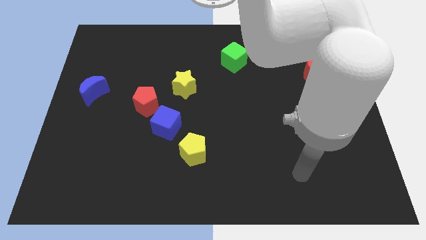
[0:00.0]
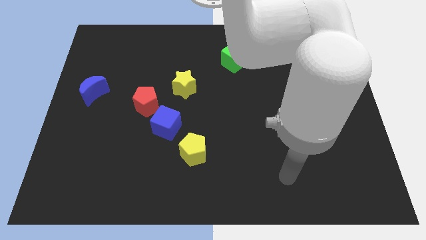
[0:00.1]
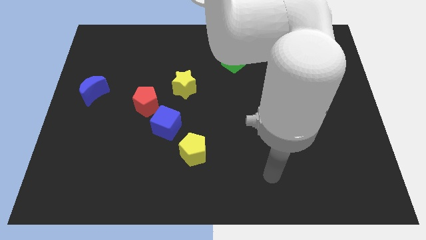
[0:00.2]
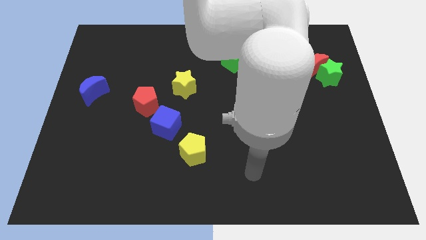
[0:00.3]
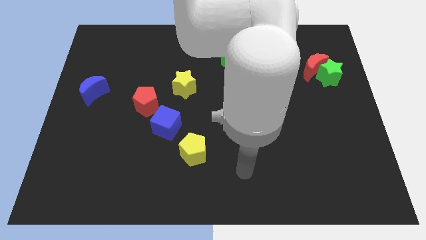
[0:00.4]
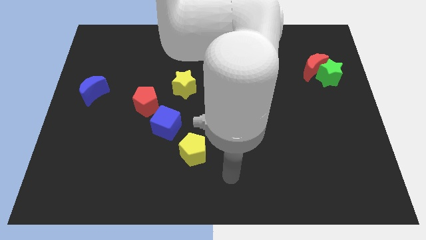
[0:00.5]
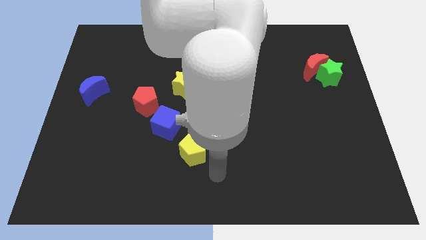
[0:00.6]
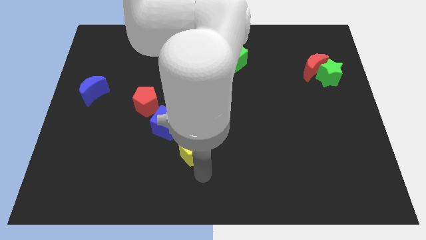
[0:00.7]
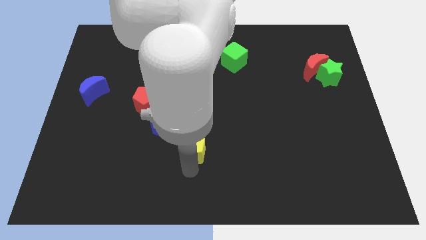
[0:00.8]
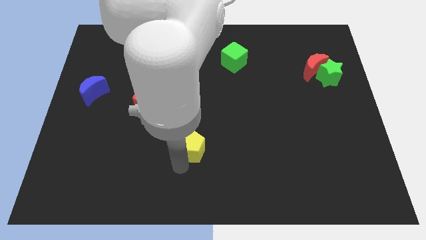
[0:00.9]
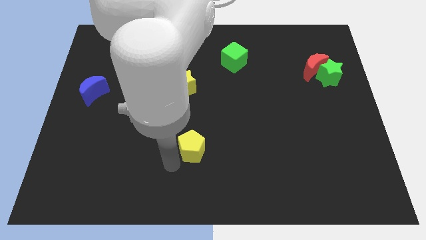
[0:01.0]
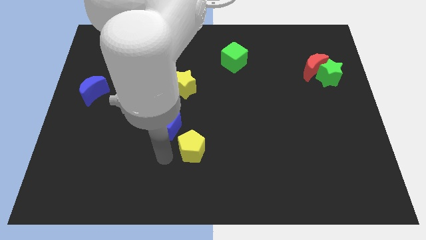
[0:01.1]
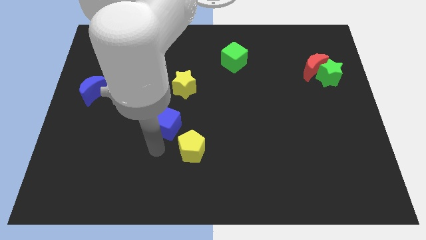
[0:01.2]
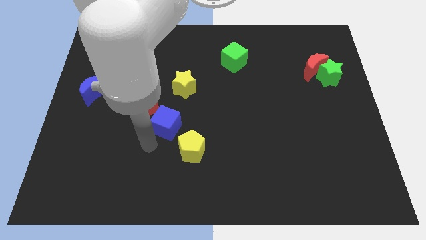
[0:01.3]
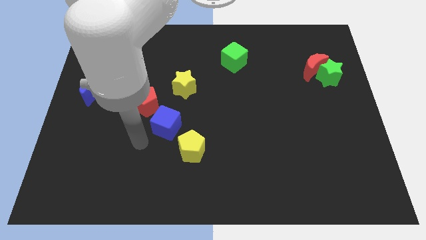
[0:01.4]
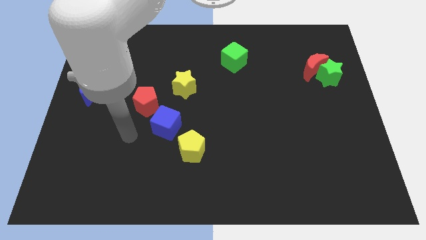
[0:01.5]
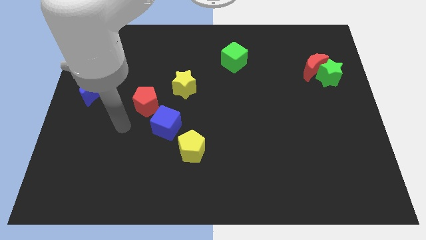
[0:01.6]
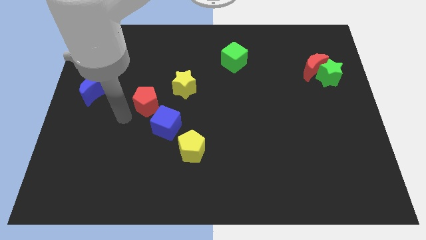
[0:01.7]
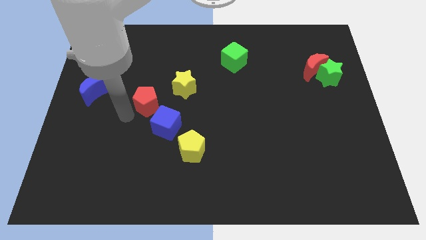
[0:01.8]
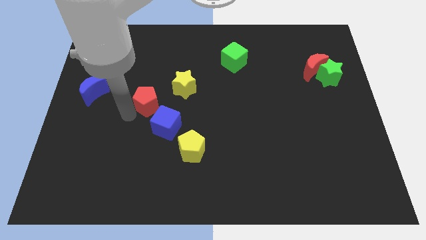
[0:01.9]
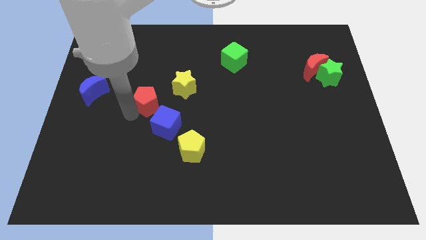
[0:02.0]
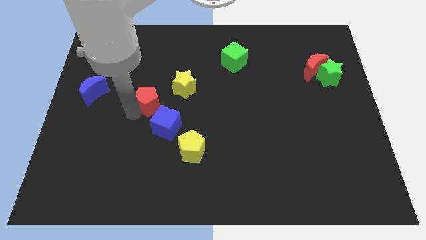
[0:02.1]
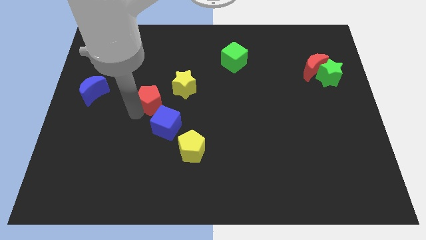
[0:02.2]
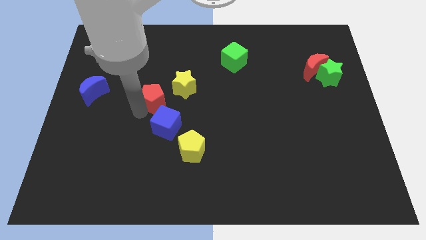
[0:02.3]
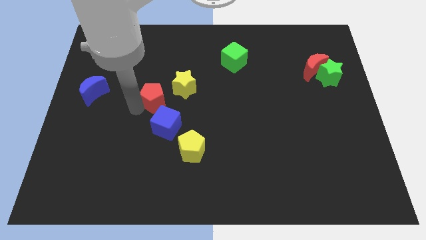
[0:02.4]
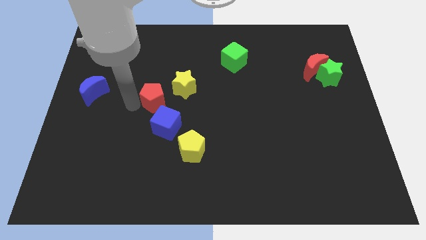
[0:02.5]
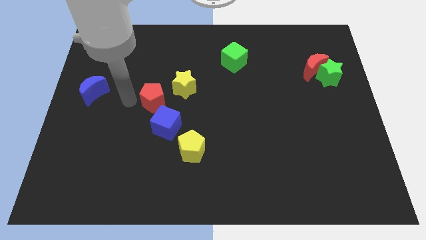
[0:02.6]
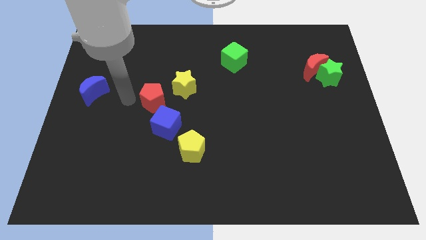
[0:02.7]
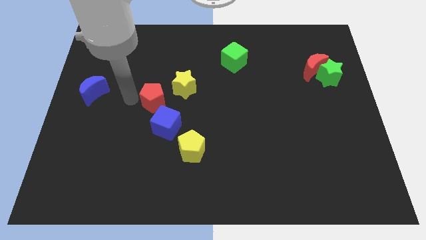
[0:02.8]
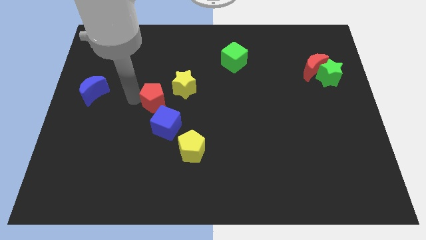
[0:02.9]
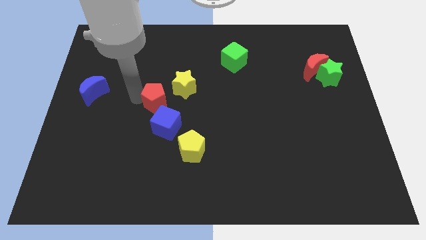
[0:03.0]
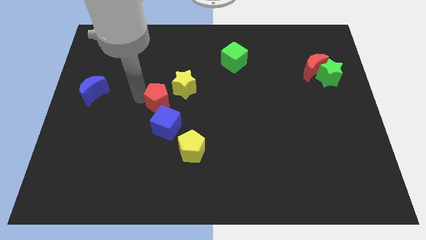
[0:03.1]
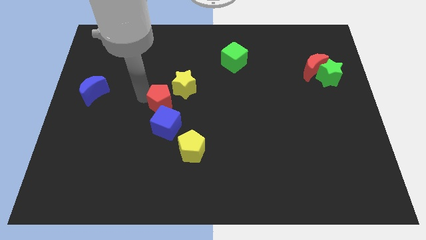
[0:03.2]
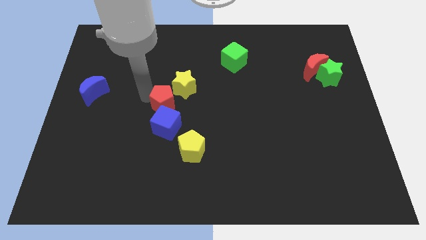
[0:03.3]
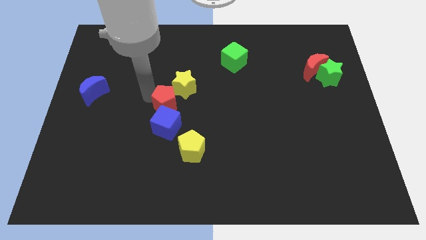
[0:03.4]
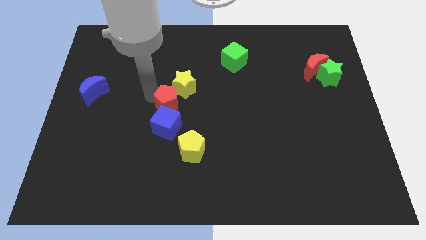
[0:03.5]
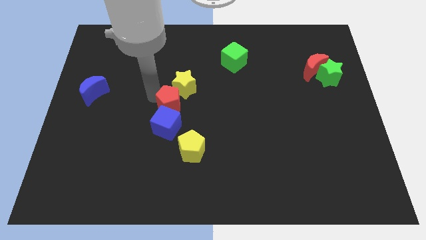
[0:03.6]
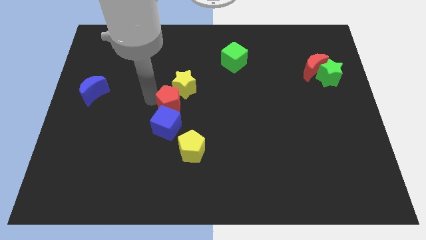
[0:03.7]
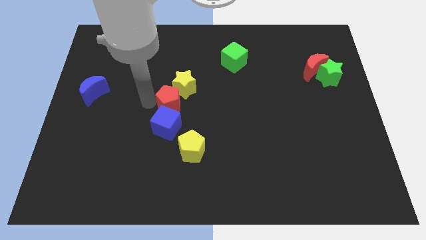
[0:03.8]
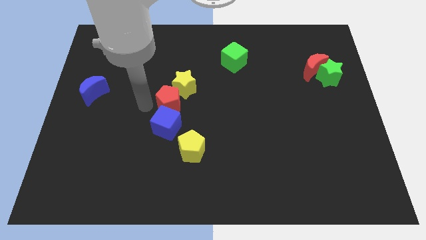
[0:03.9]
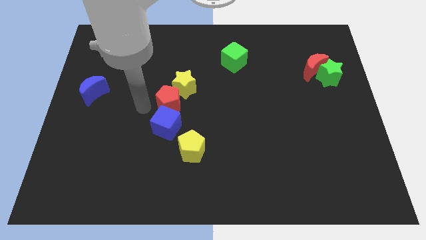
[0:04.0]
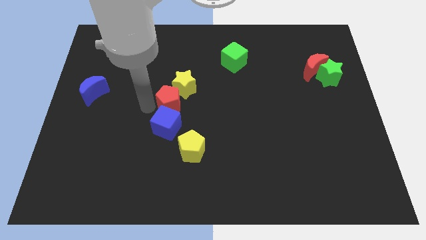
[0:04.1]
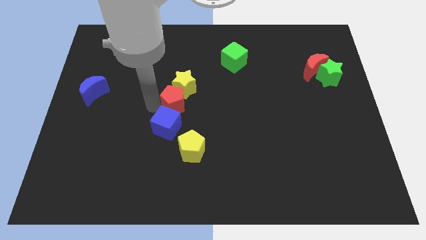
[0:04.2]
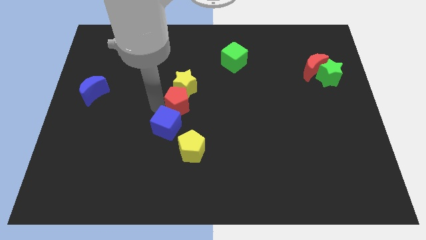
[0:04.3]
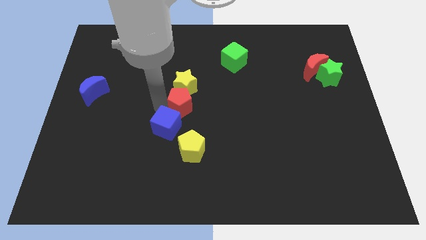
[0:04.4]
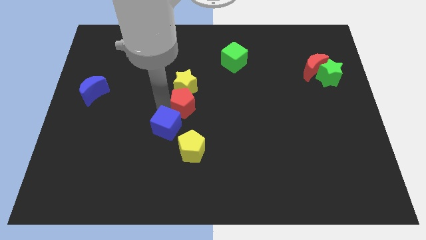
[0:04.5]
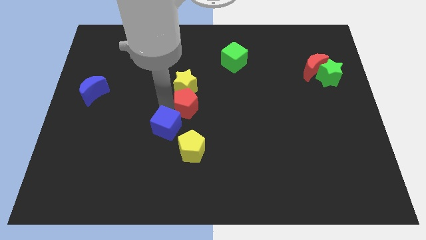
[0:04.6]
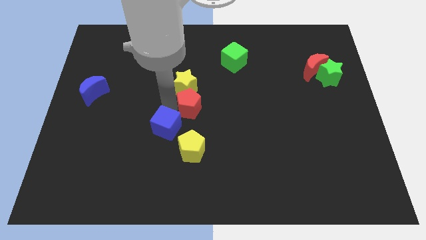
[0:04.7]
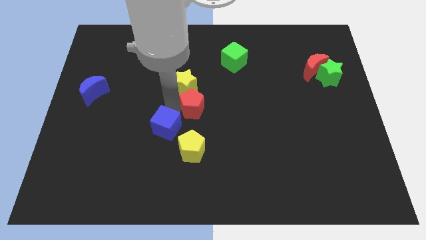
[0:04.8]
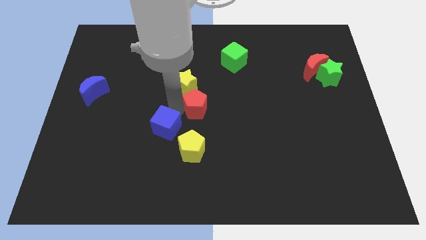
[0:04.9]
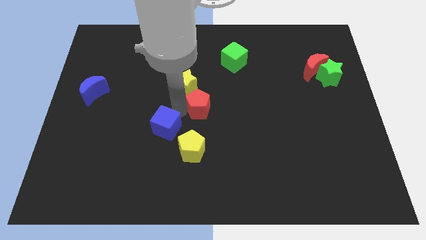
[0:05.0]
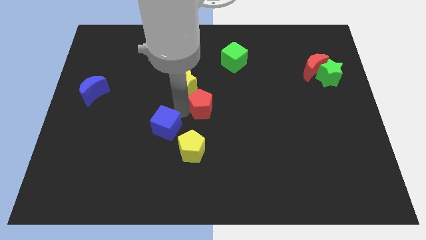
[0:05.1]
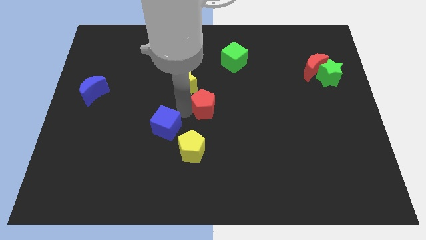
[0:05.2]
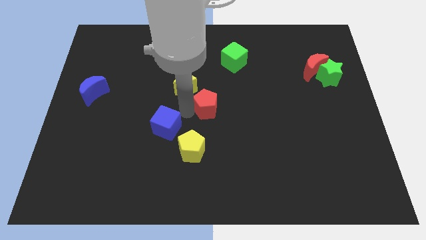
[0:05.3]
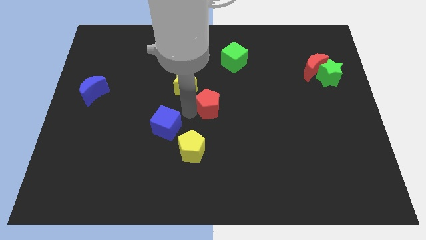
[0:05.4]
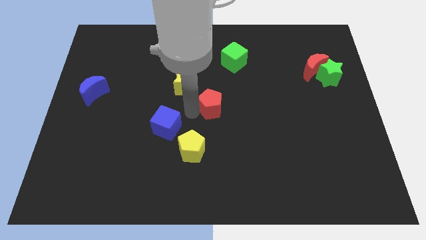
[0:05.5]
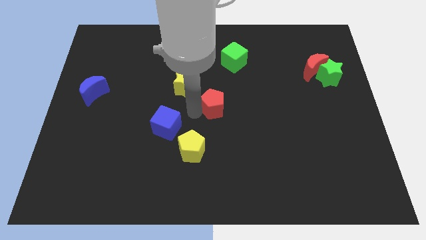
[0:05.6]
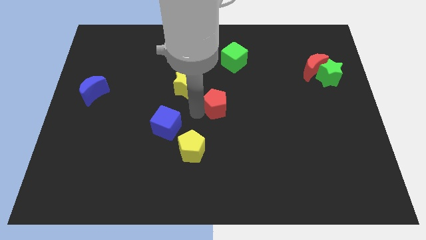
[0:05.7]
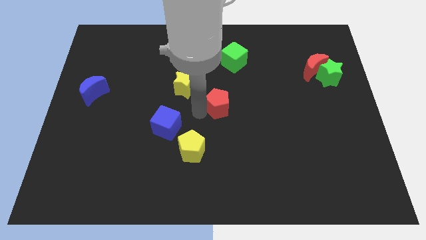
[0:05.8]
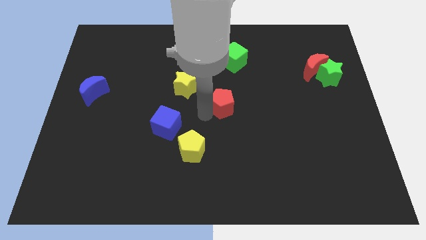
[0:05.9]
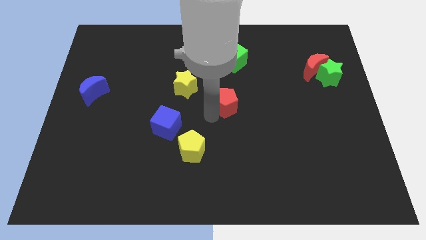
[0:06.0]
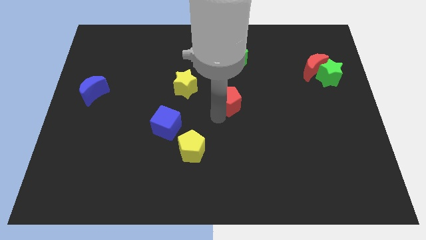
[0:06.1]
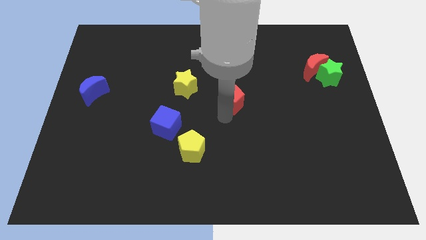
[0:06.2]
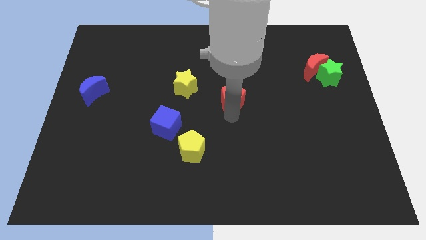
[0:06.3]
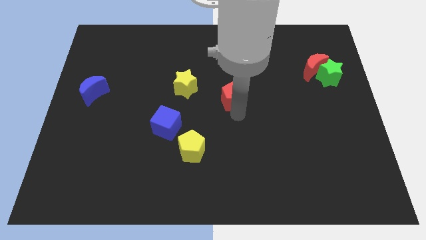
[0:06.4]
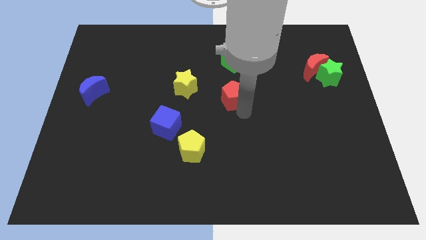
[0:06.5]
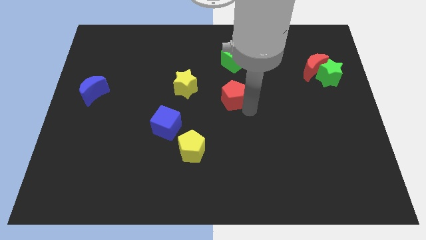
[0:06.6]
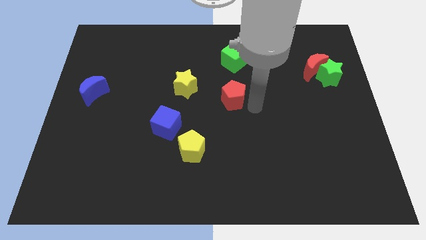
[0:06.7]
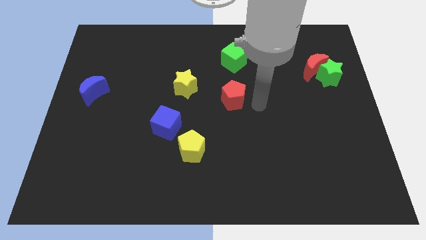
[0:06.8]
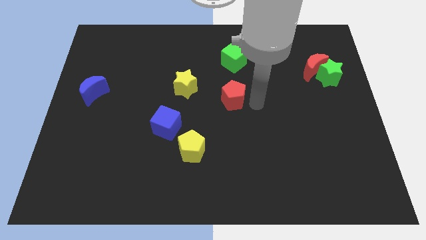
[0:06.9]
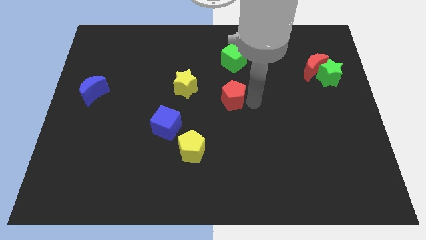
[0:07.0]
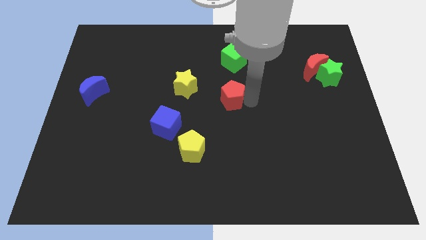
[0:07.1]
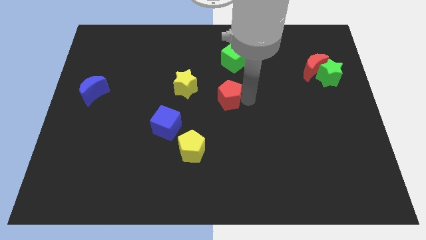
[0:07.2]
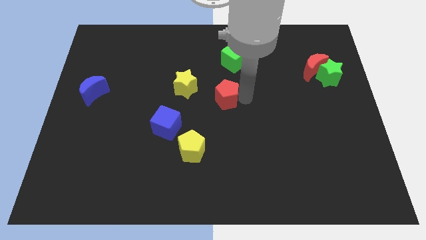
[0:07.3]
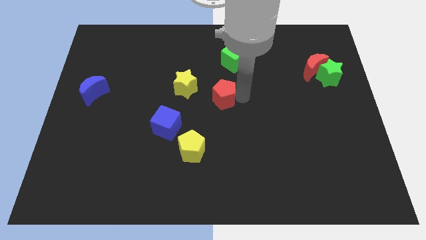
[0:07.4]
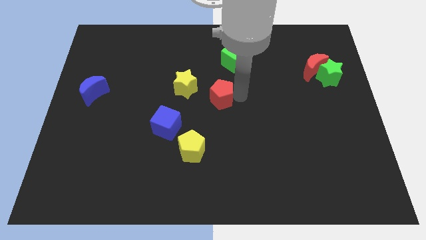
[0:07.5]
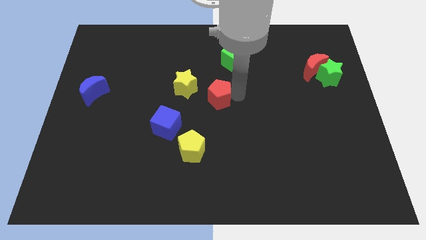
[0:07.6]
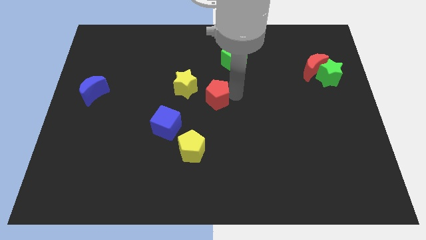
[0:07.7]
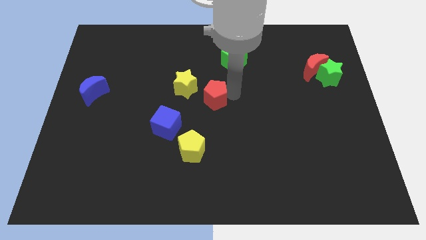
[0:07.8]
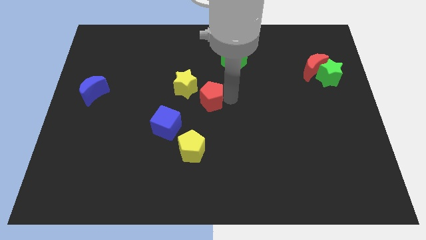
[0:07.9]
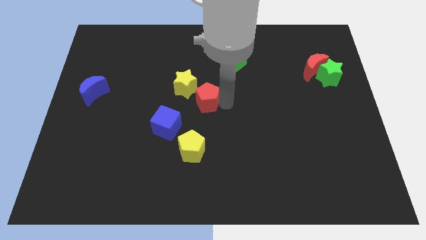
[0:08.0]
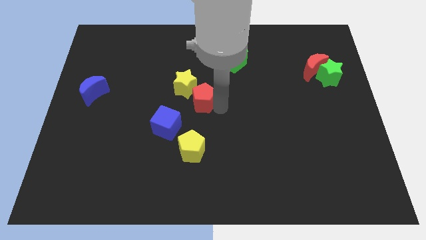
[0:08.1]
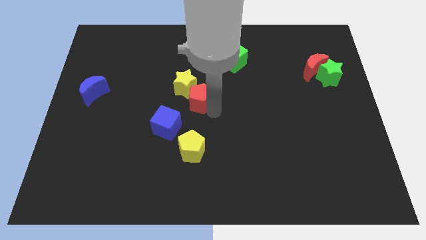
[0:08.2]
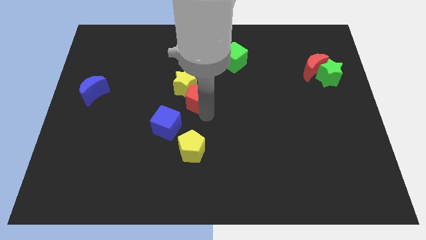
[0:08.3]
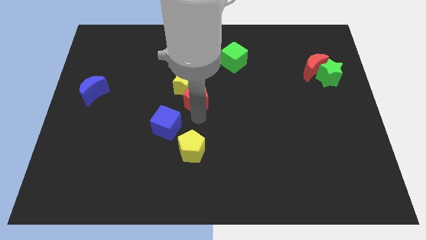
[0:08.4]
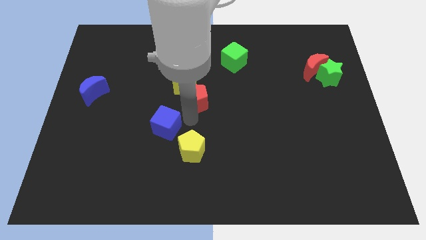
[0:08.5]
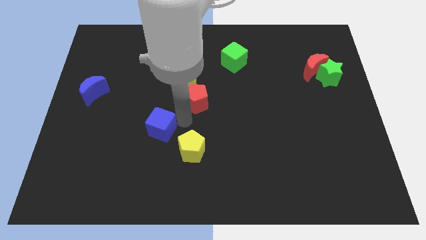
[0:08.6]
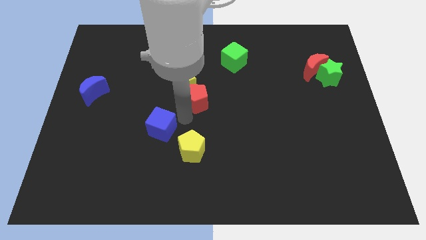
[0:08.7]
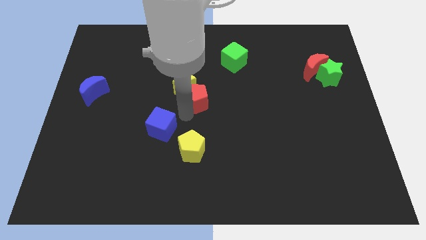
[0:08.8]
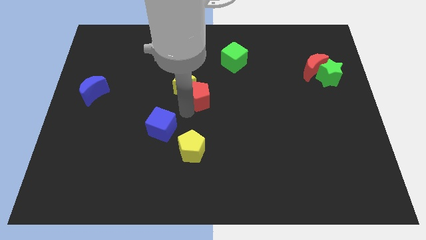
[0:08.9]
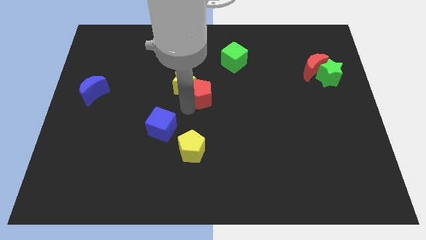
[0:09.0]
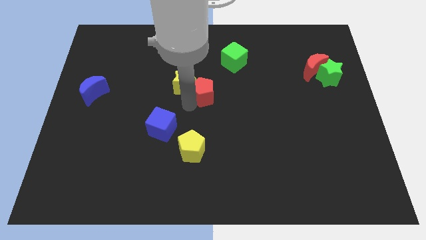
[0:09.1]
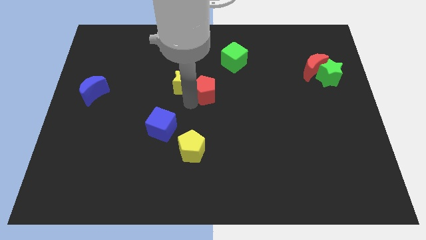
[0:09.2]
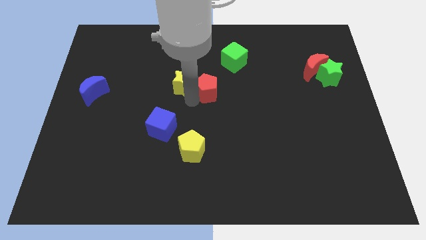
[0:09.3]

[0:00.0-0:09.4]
put the red pentagon to the bottom left of the green cube
